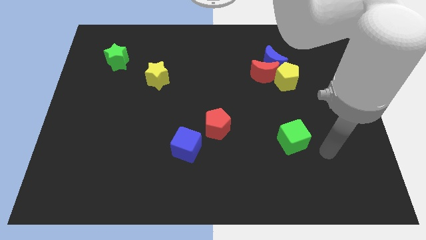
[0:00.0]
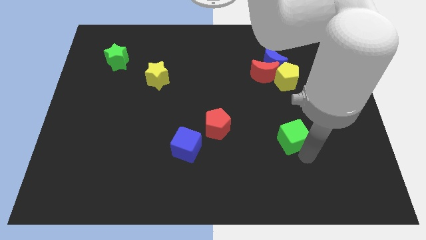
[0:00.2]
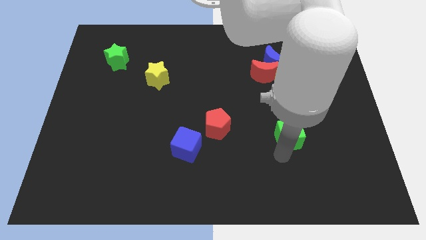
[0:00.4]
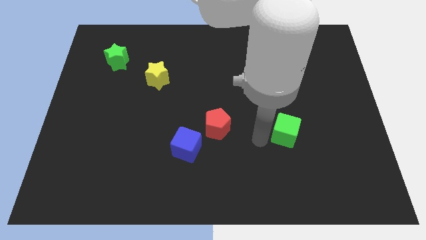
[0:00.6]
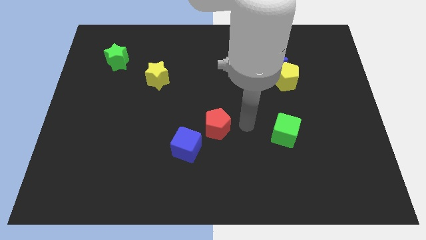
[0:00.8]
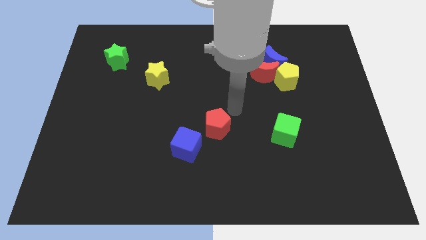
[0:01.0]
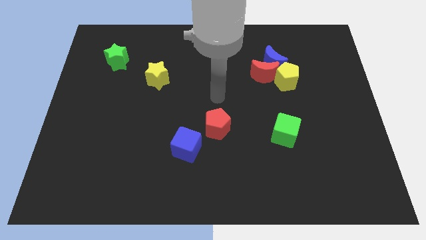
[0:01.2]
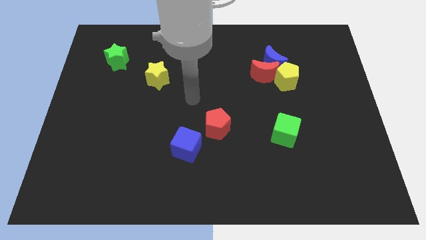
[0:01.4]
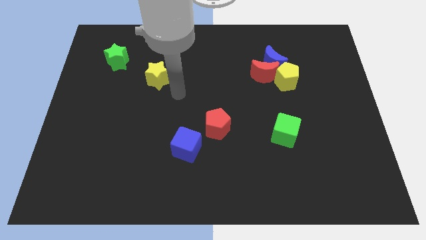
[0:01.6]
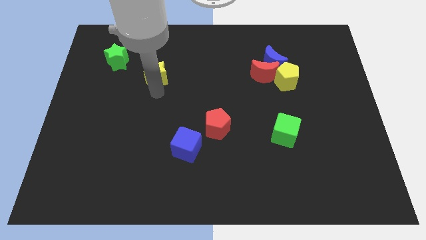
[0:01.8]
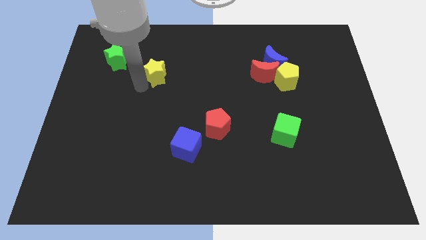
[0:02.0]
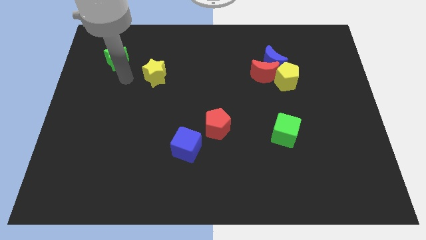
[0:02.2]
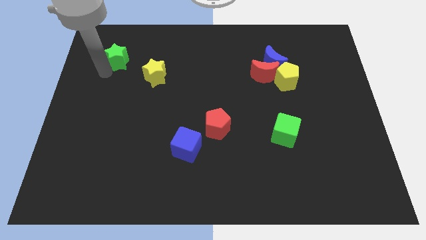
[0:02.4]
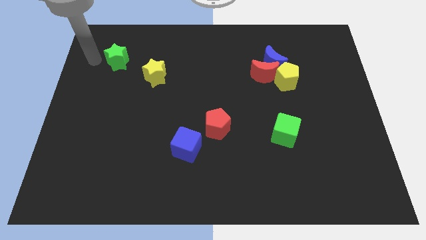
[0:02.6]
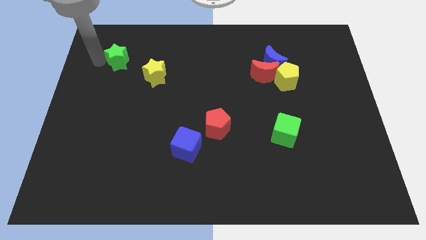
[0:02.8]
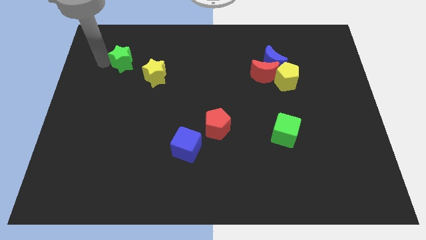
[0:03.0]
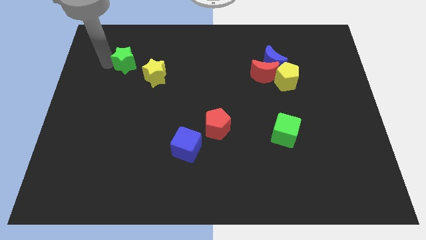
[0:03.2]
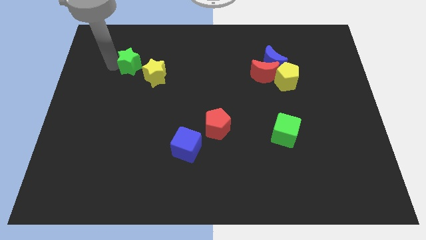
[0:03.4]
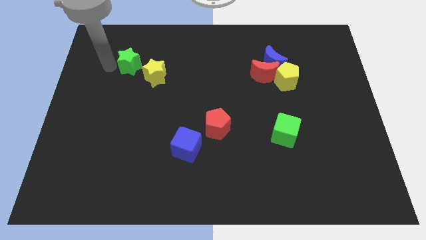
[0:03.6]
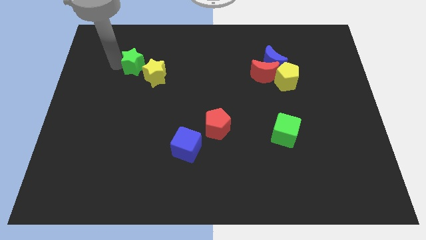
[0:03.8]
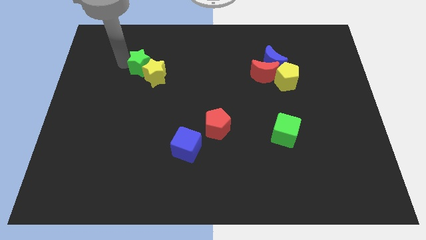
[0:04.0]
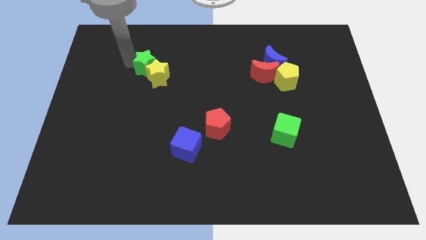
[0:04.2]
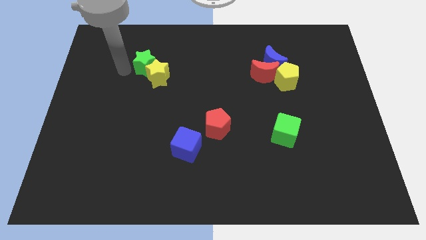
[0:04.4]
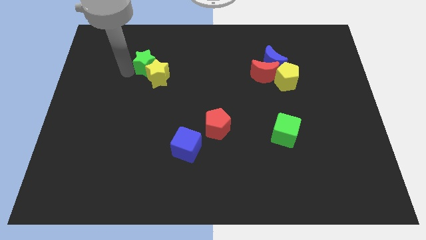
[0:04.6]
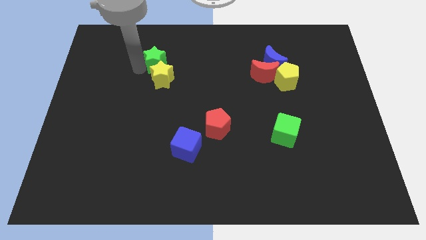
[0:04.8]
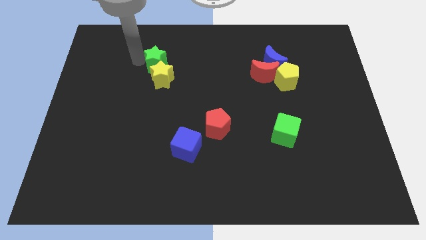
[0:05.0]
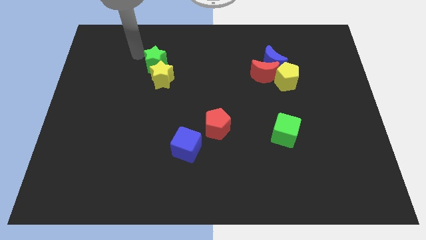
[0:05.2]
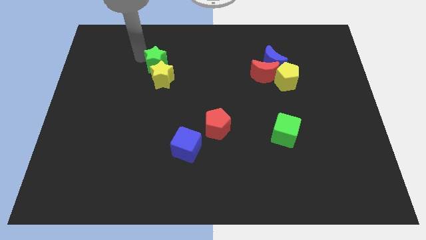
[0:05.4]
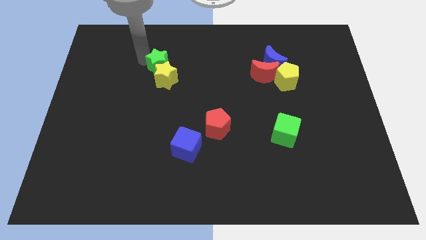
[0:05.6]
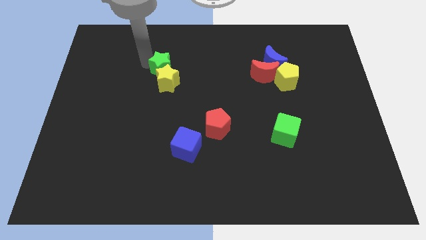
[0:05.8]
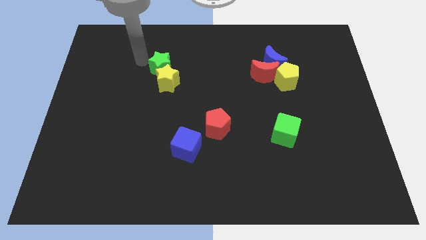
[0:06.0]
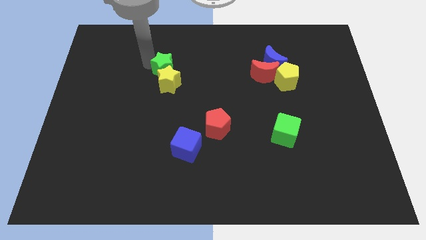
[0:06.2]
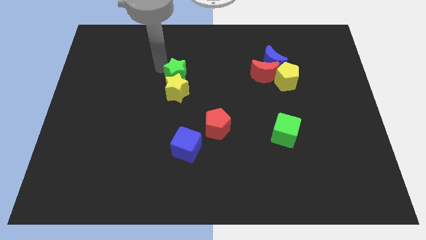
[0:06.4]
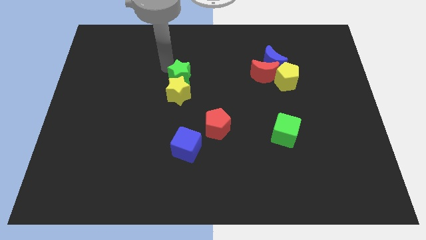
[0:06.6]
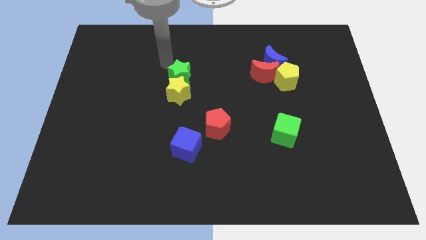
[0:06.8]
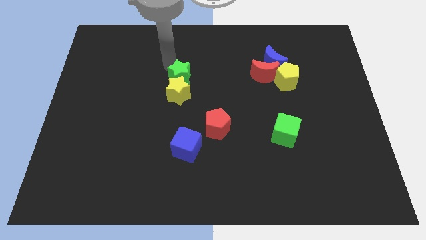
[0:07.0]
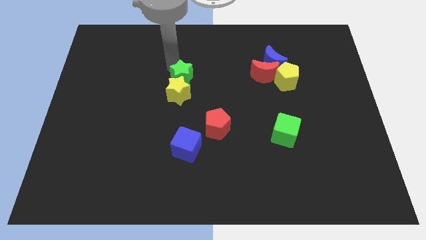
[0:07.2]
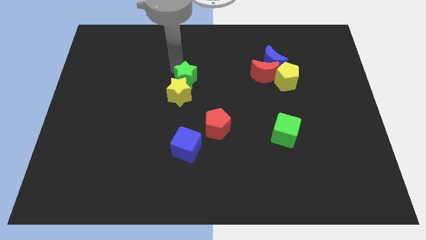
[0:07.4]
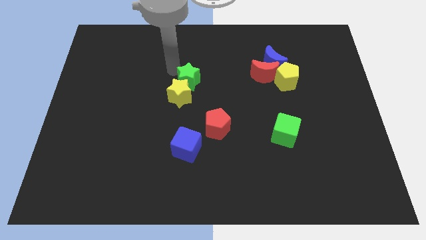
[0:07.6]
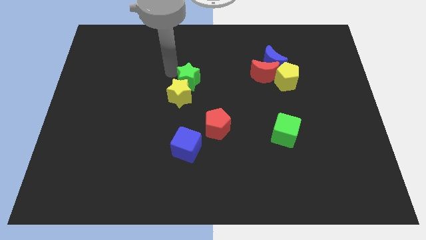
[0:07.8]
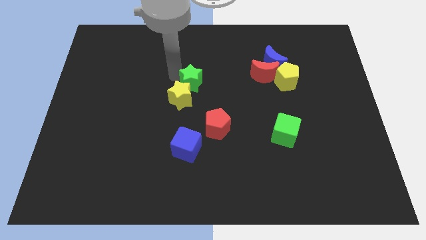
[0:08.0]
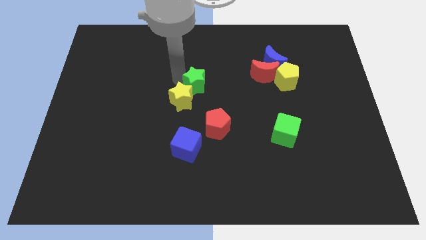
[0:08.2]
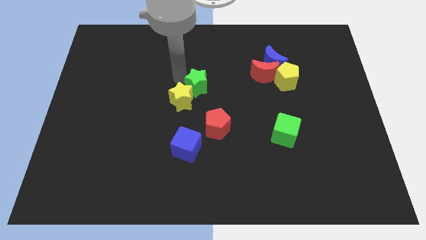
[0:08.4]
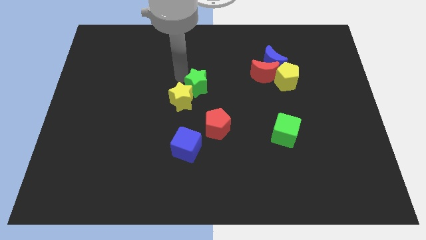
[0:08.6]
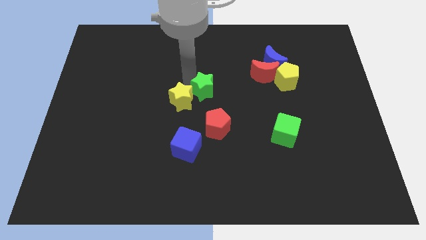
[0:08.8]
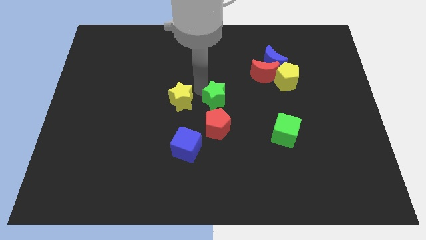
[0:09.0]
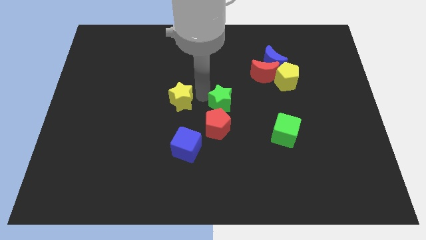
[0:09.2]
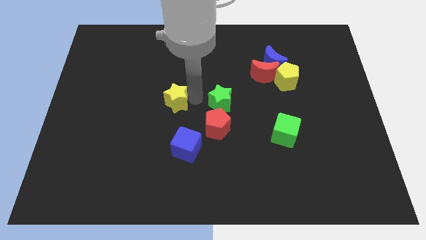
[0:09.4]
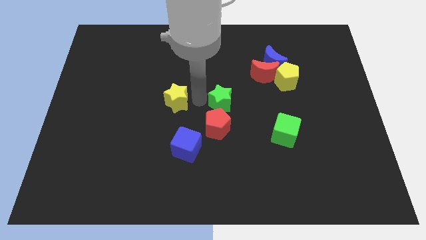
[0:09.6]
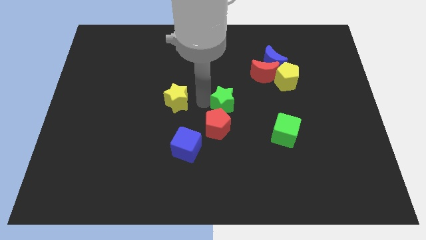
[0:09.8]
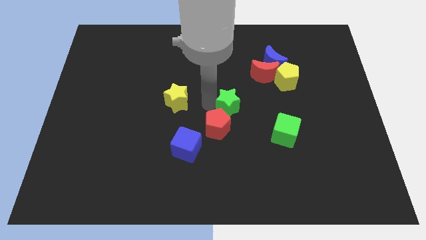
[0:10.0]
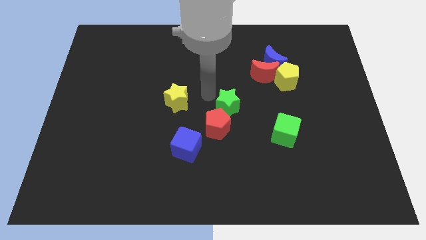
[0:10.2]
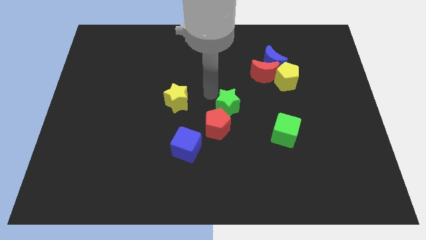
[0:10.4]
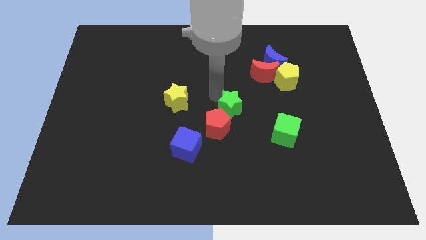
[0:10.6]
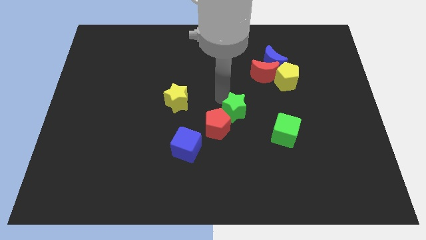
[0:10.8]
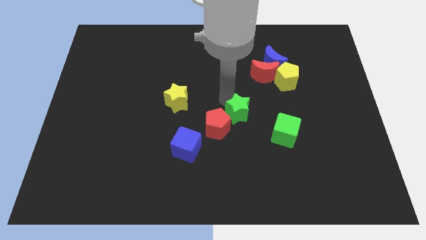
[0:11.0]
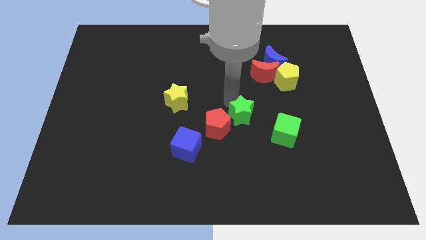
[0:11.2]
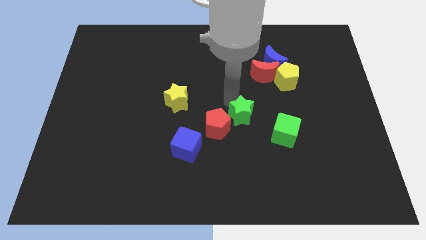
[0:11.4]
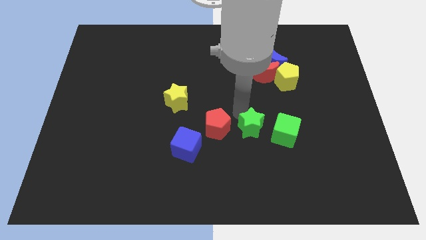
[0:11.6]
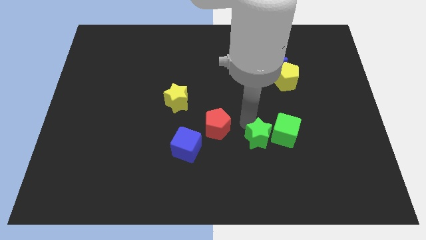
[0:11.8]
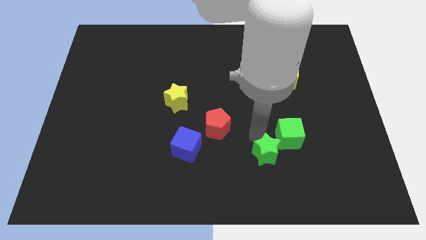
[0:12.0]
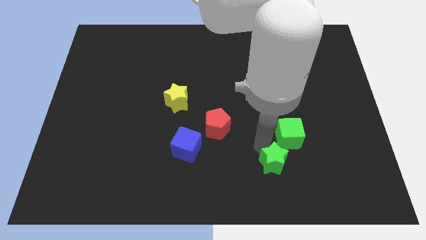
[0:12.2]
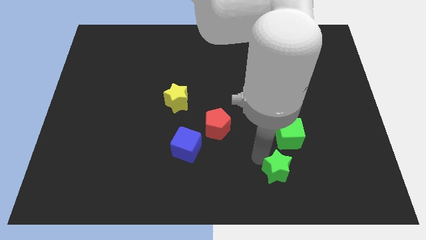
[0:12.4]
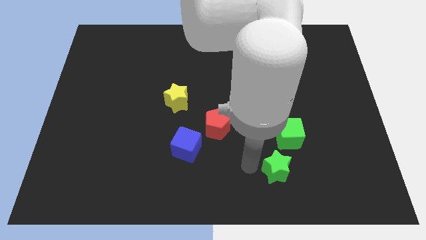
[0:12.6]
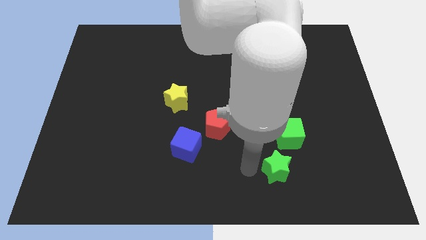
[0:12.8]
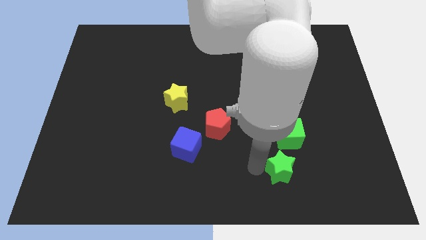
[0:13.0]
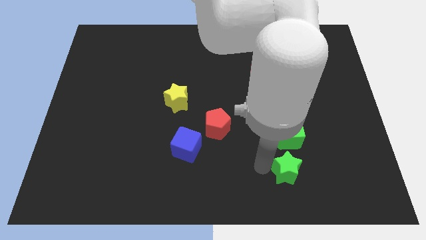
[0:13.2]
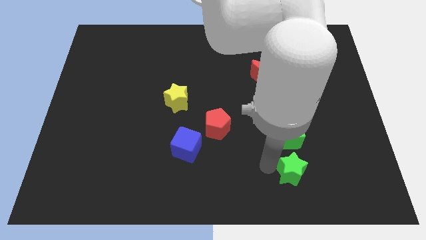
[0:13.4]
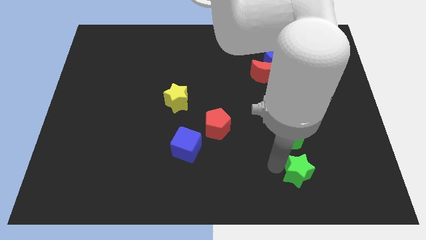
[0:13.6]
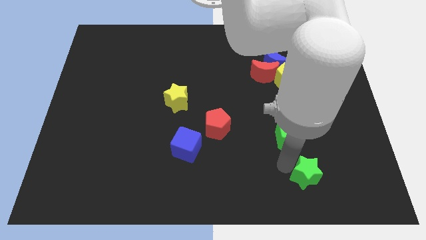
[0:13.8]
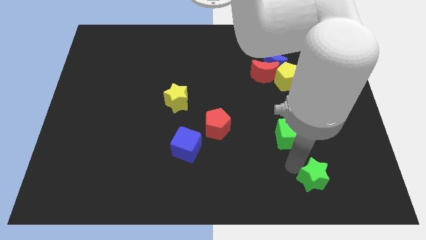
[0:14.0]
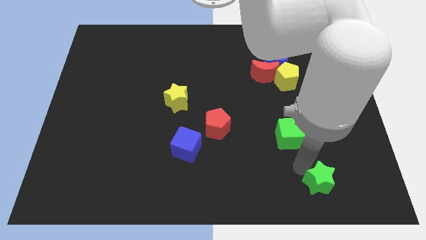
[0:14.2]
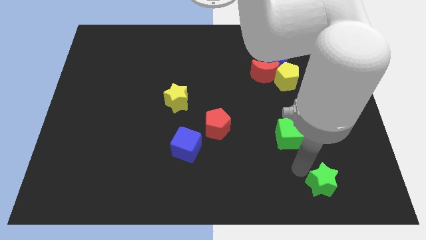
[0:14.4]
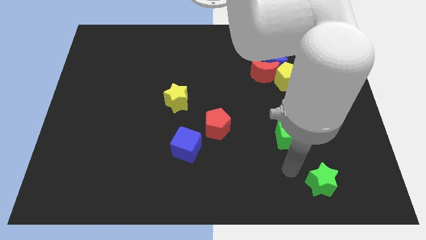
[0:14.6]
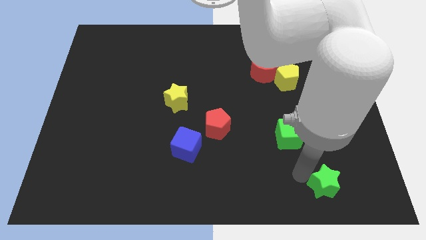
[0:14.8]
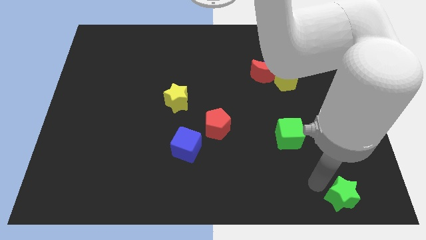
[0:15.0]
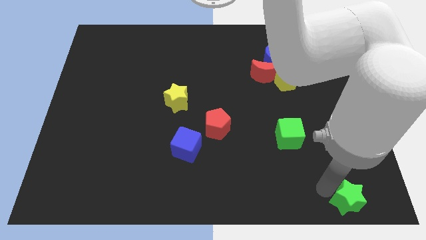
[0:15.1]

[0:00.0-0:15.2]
push the green star to the lower right corner
